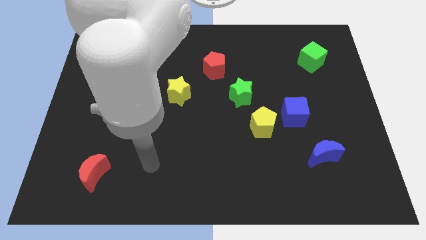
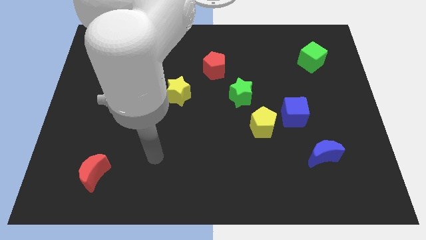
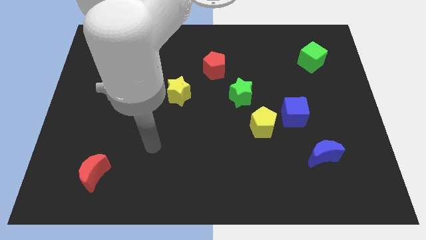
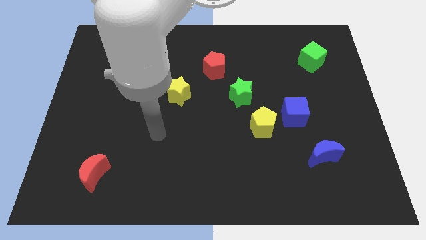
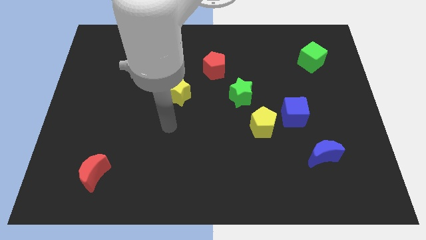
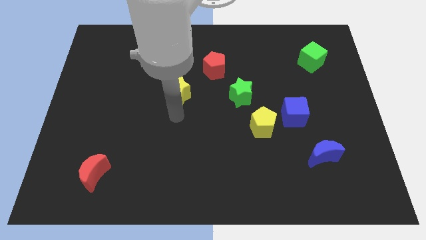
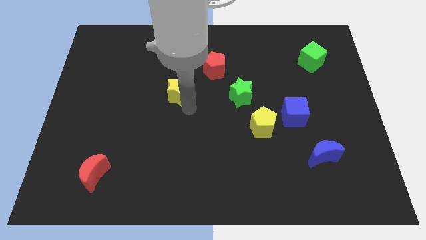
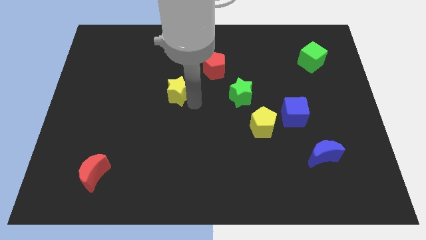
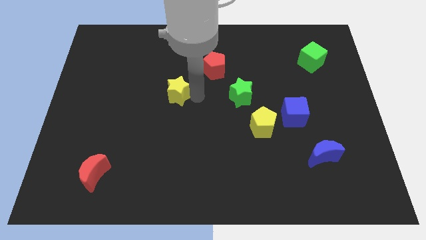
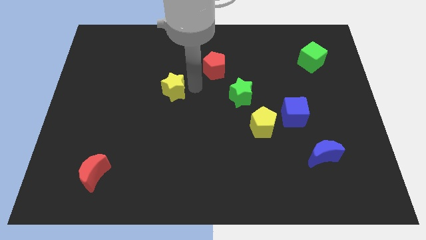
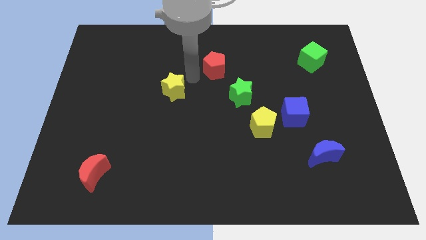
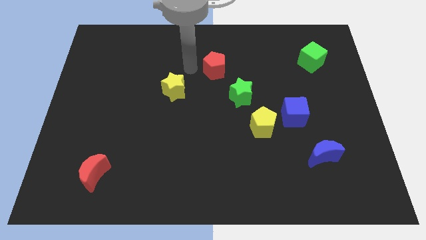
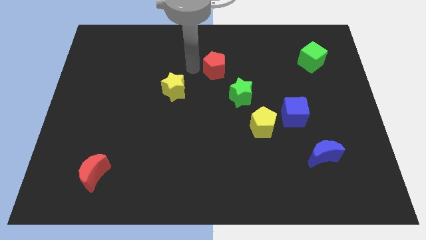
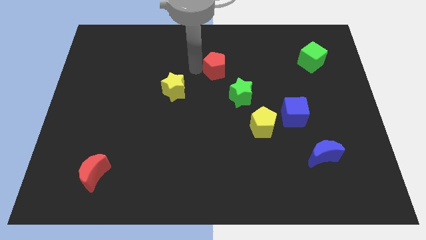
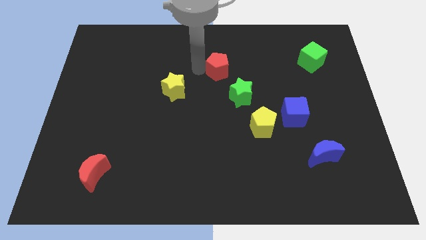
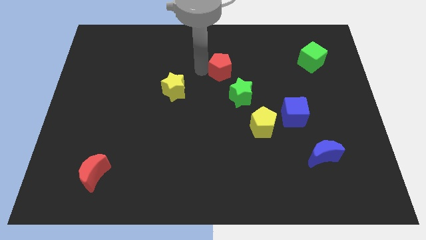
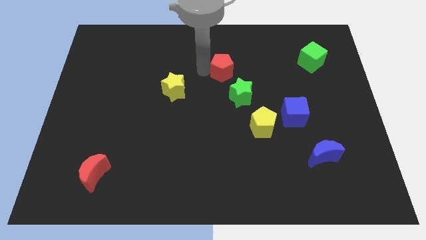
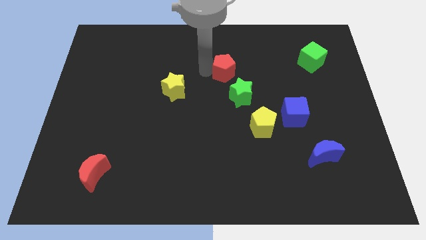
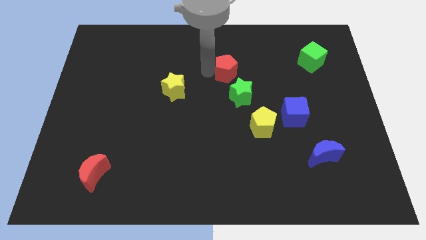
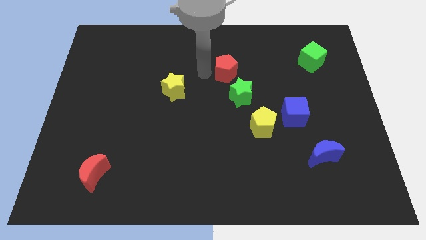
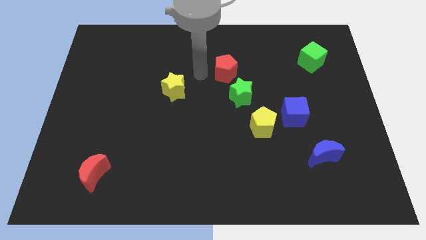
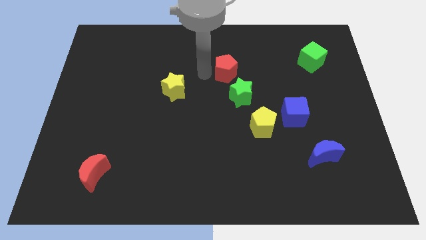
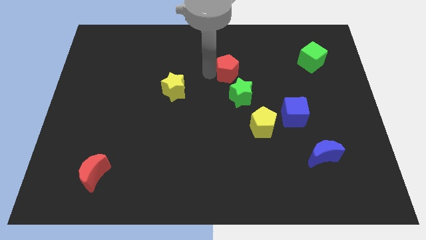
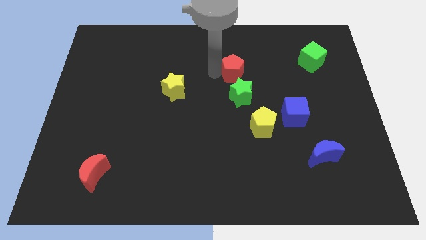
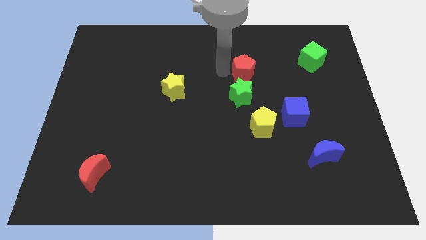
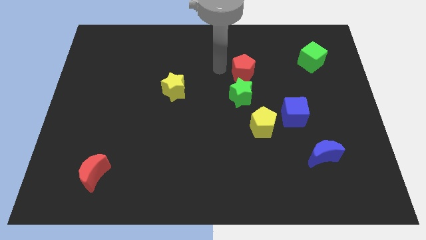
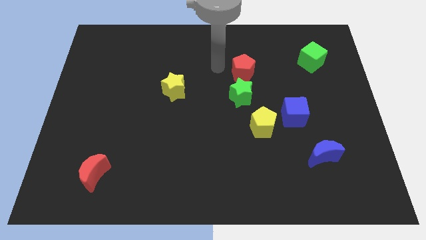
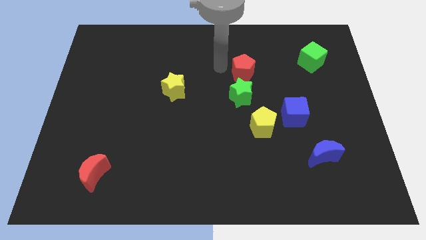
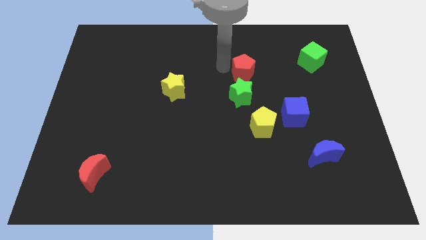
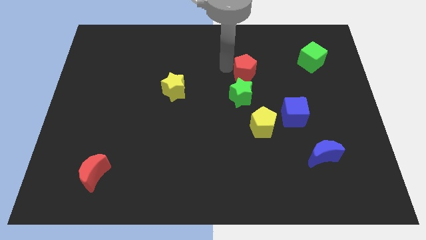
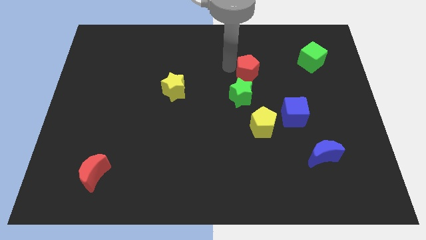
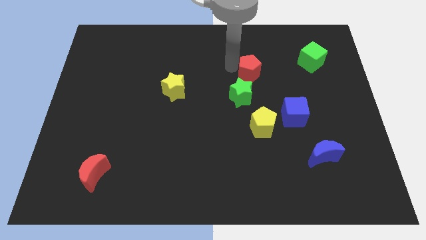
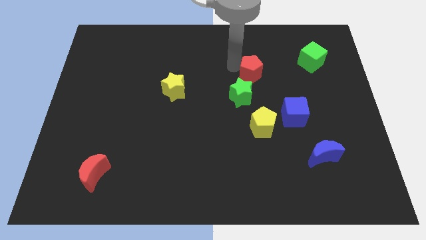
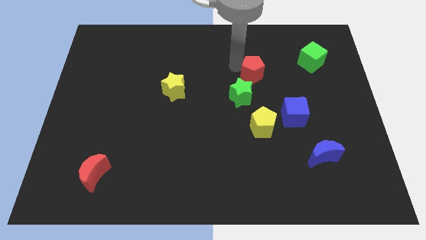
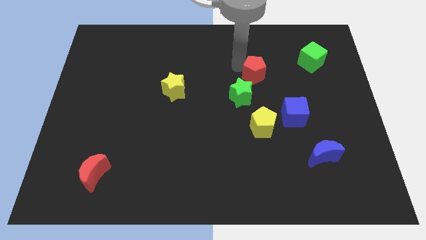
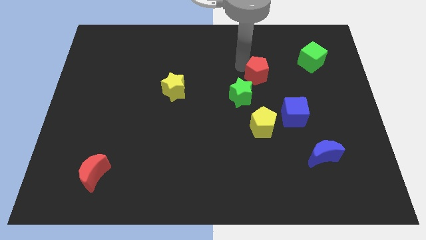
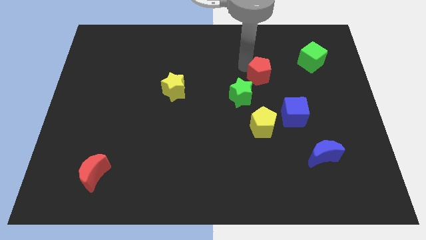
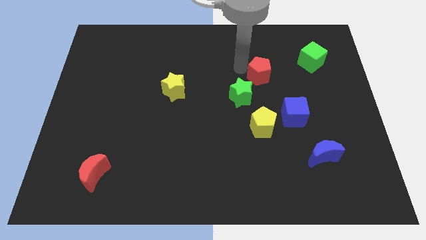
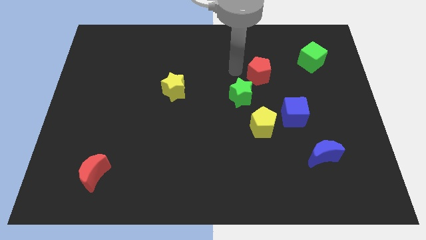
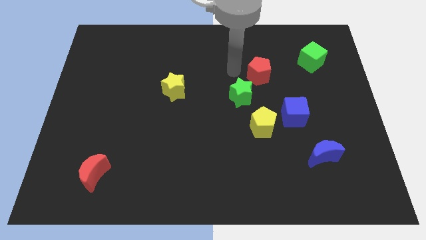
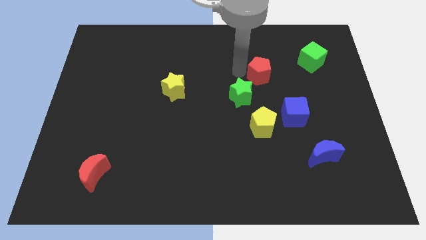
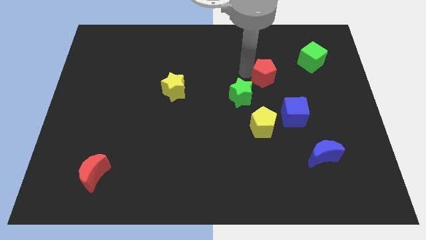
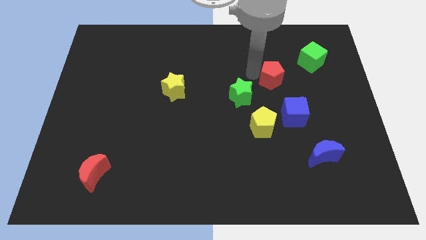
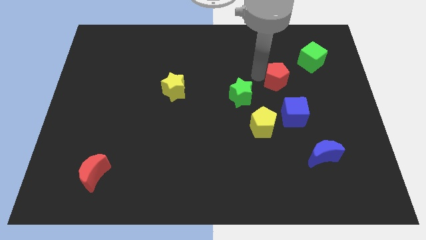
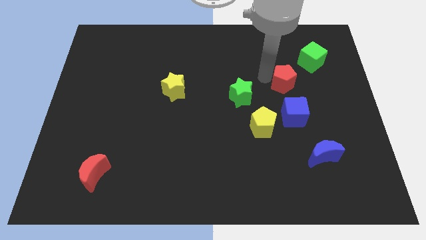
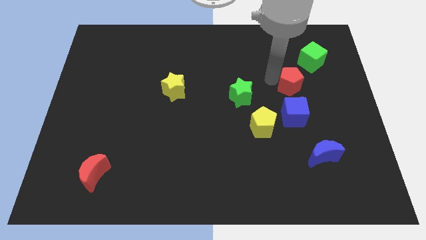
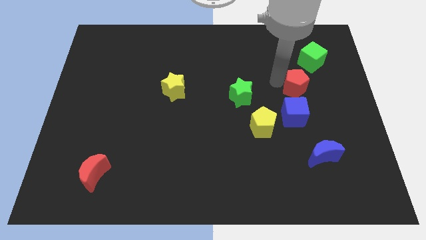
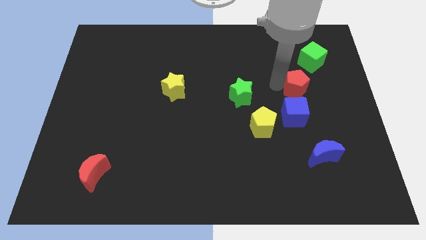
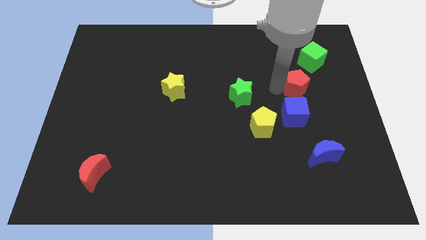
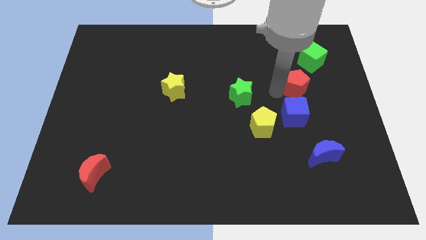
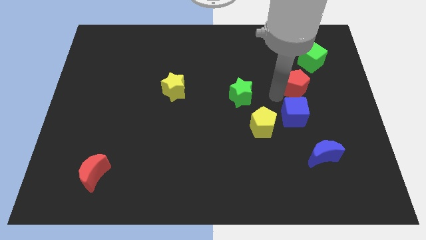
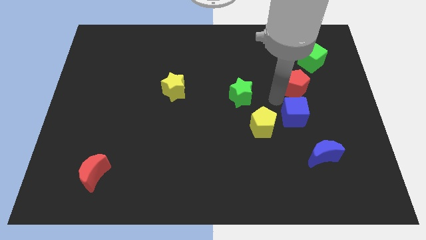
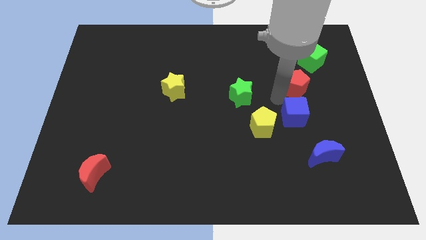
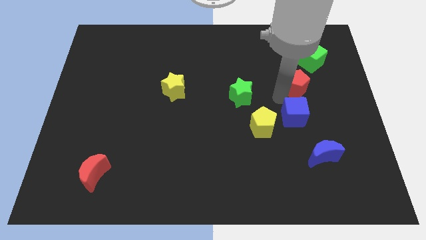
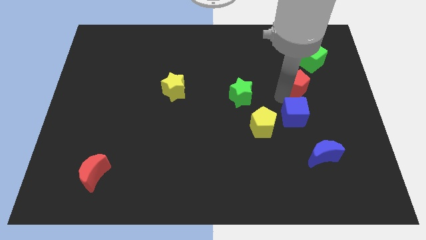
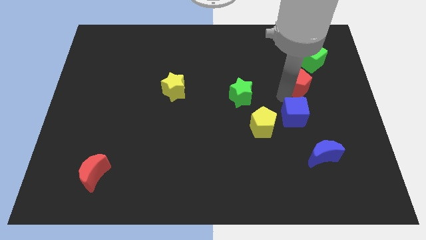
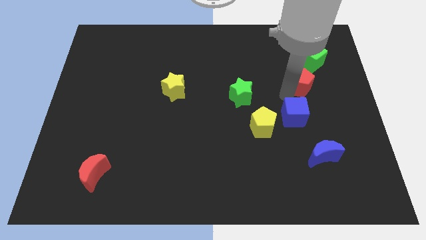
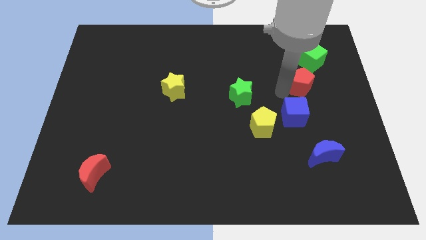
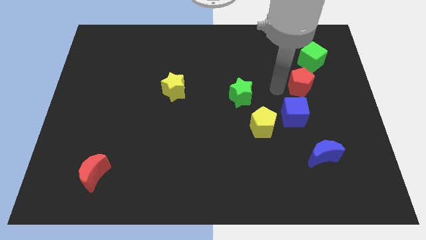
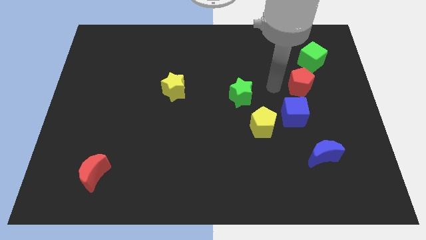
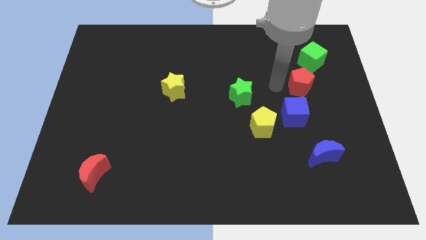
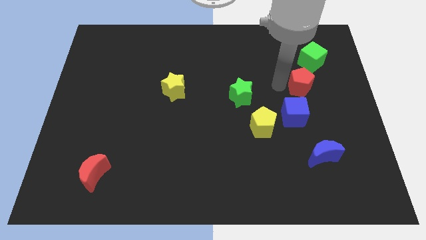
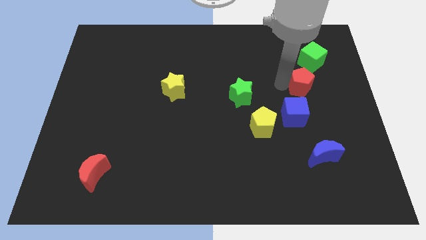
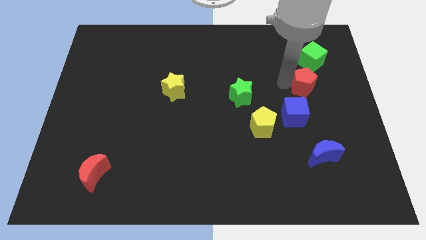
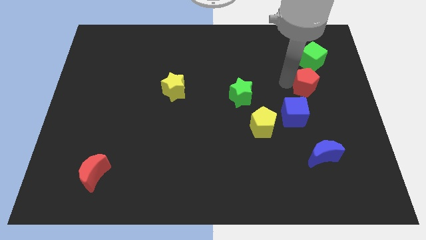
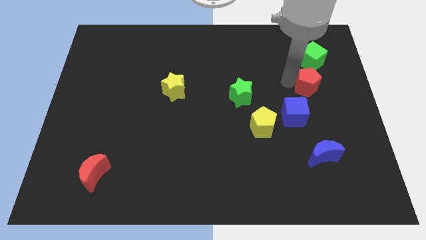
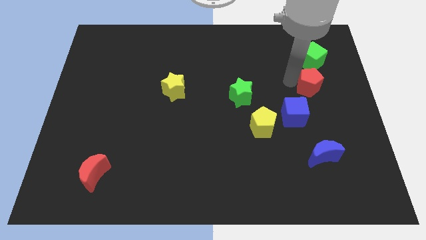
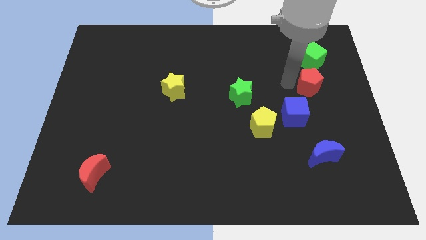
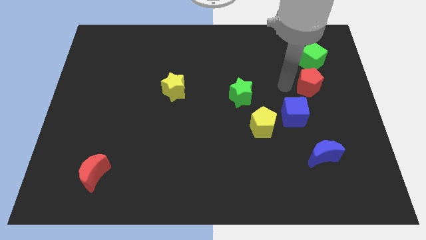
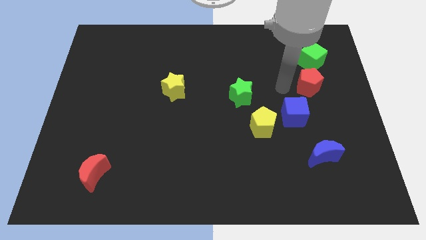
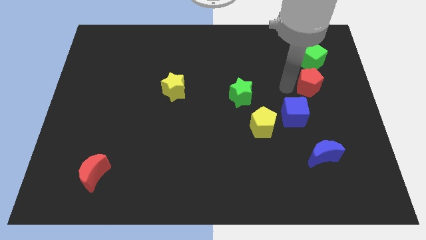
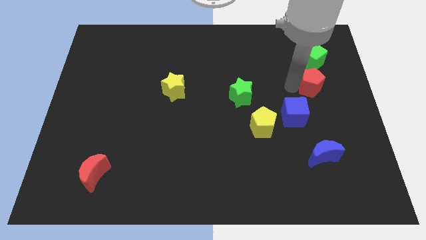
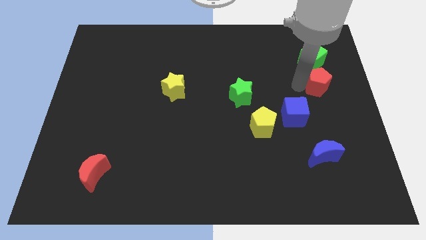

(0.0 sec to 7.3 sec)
move the red pentagon to the center right

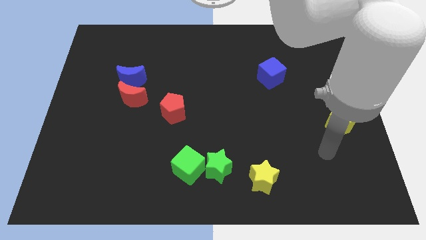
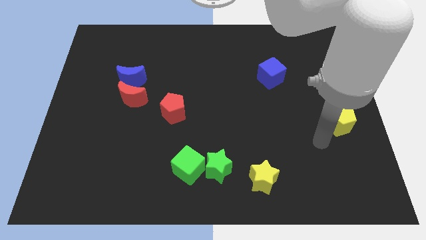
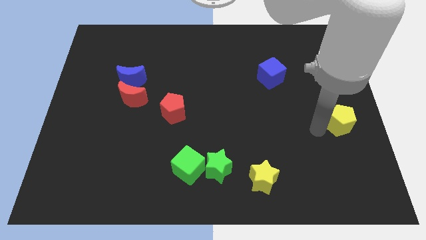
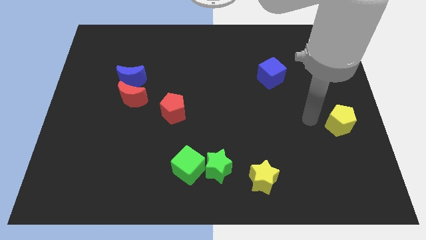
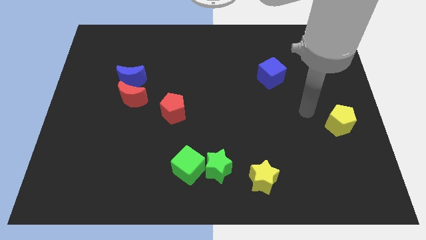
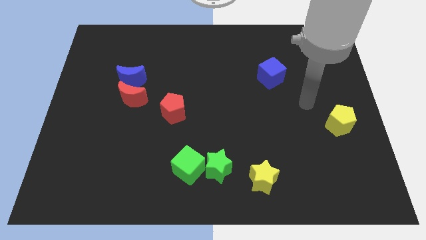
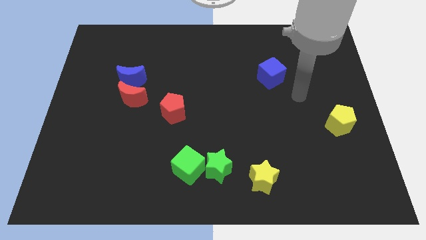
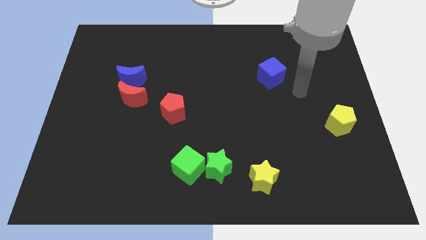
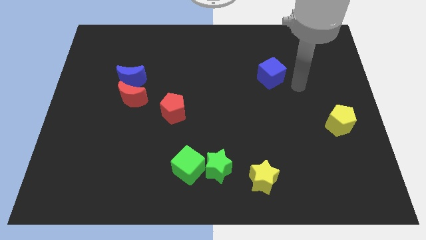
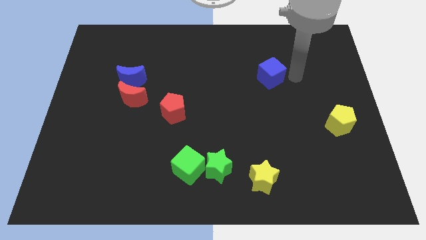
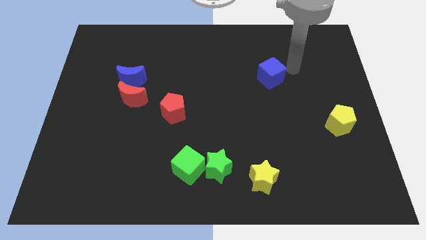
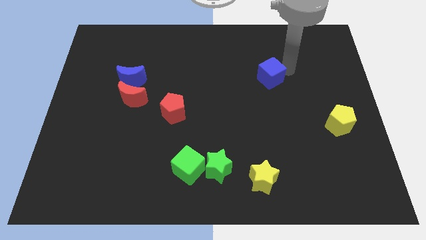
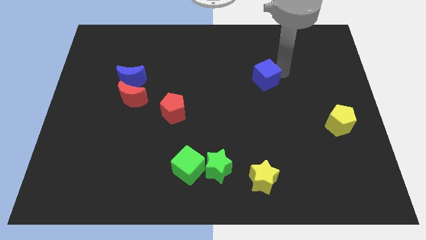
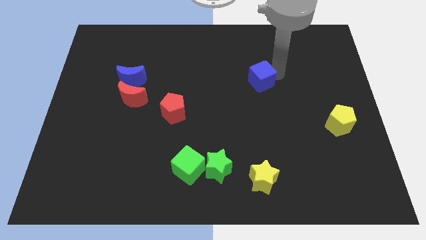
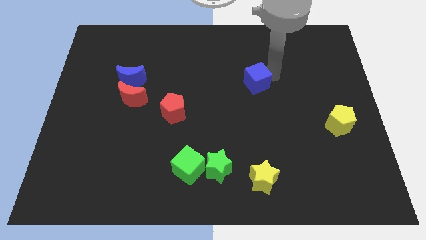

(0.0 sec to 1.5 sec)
push the blue cube to the middle
